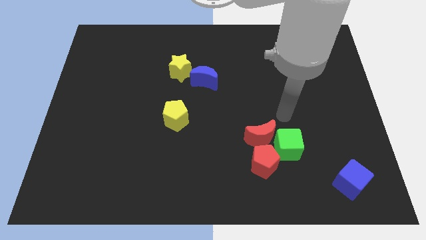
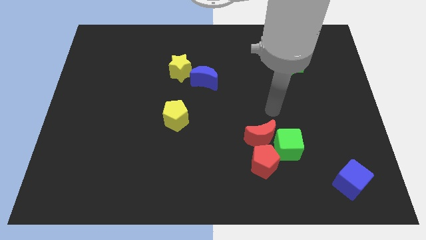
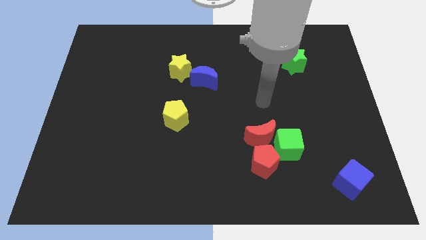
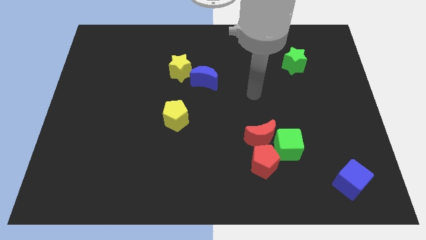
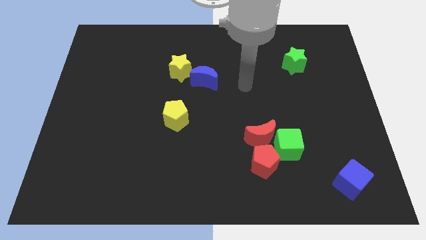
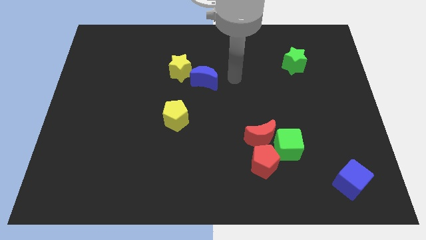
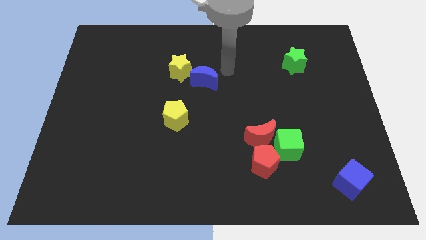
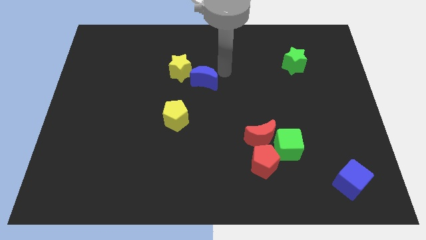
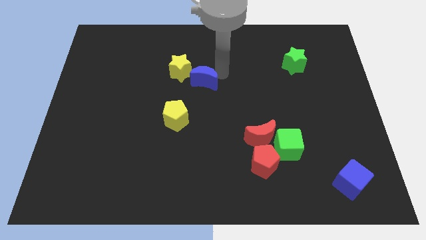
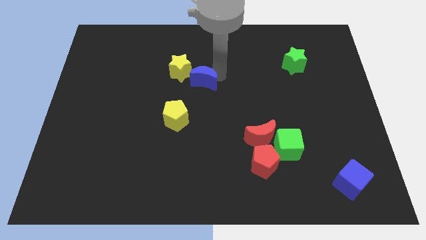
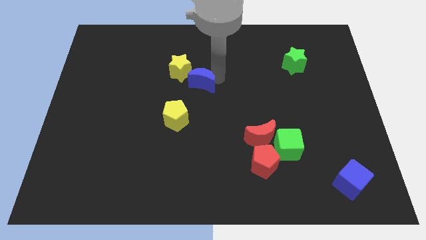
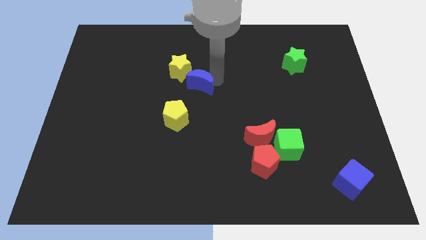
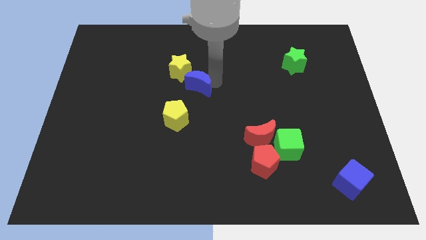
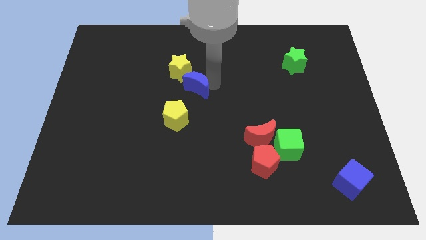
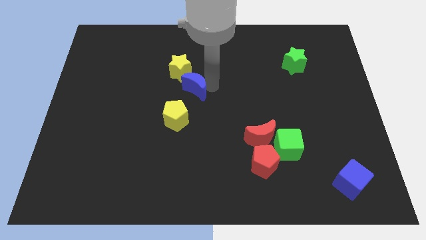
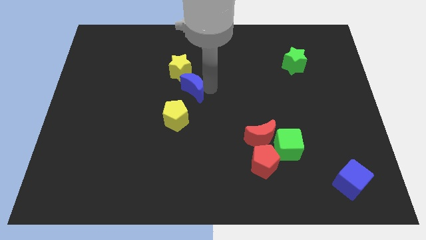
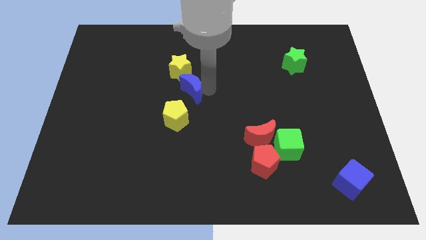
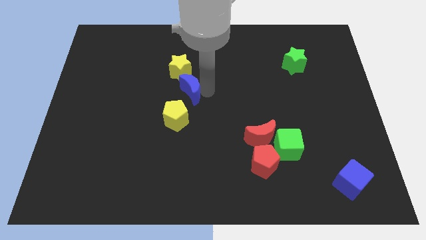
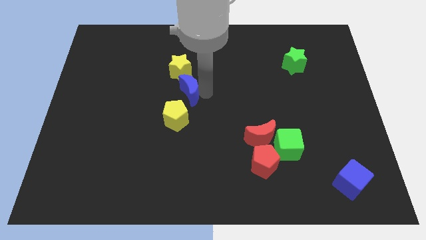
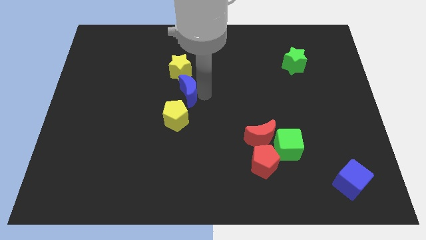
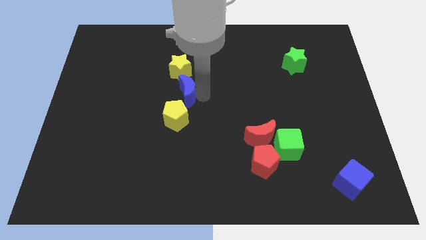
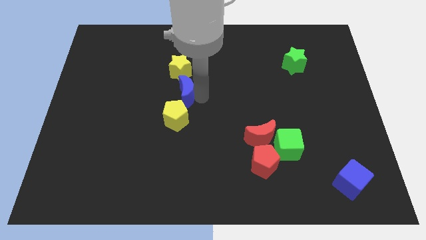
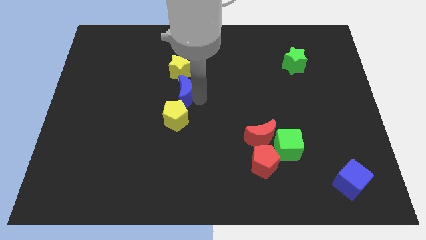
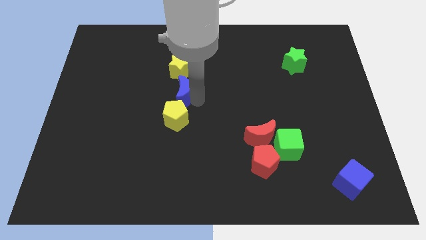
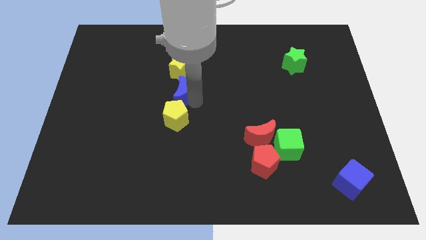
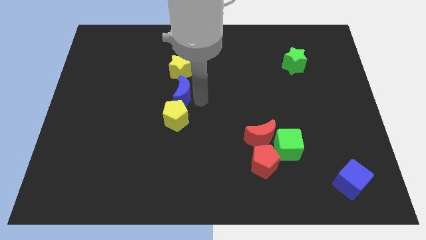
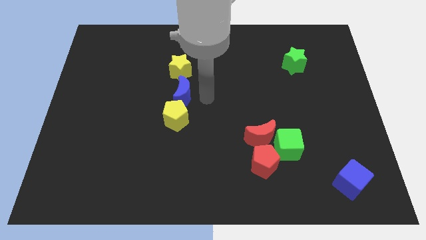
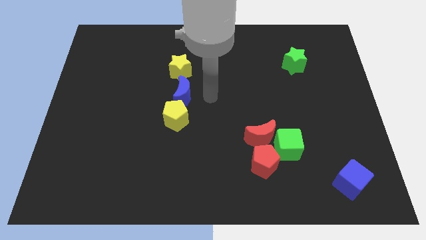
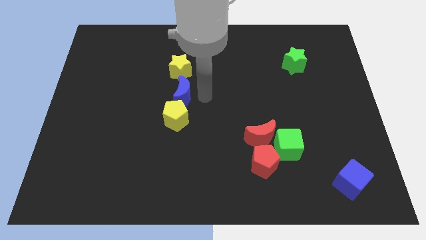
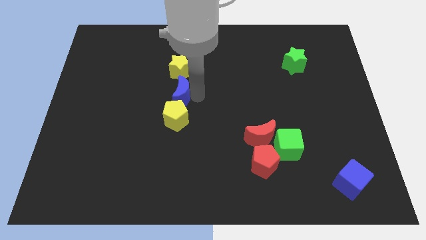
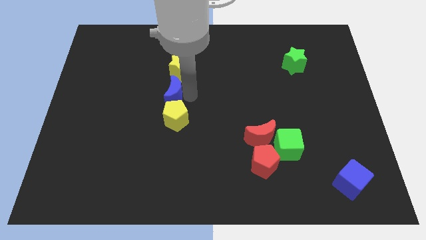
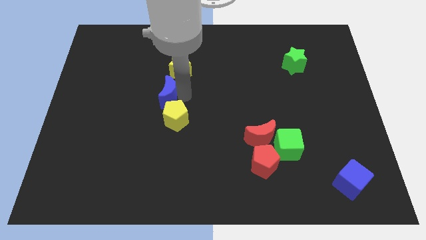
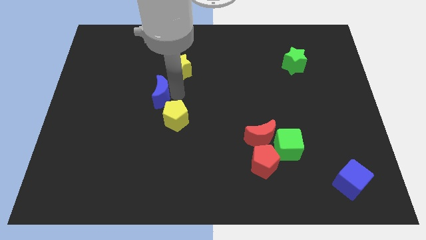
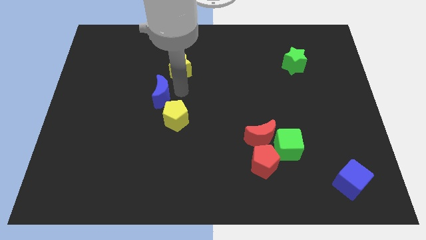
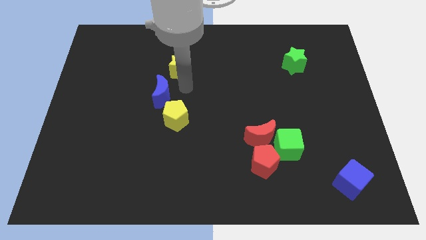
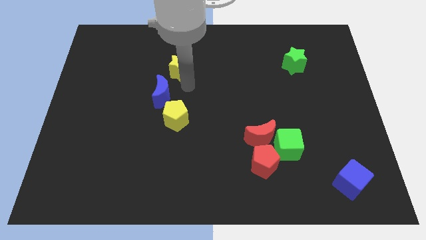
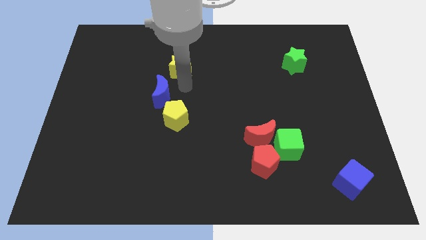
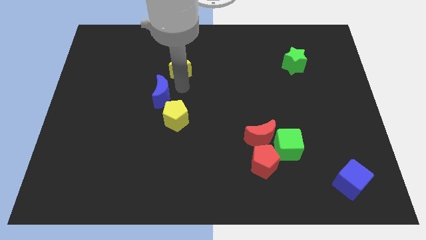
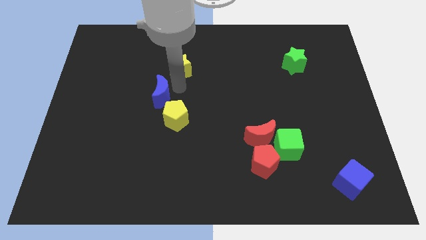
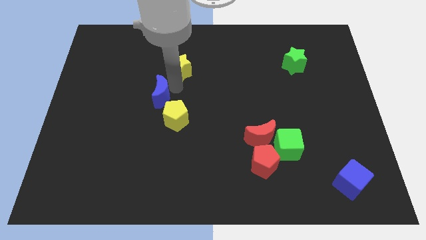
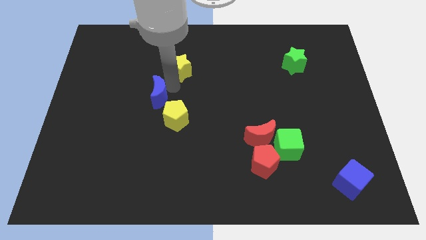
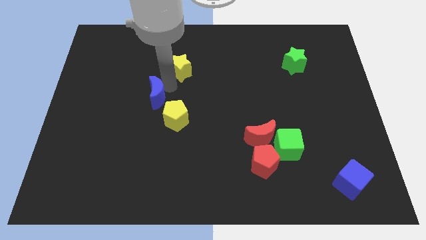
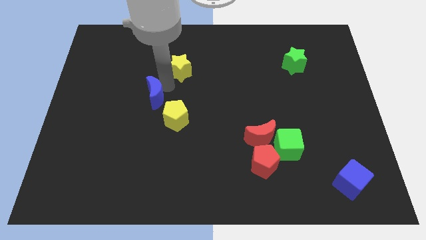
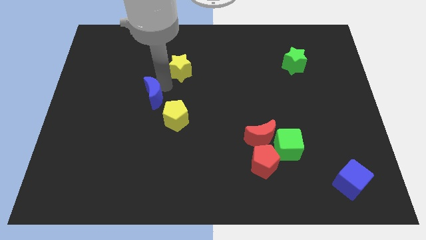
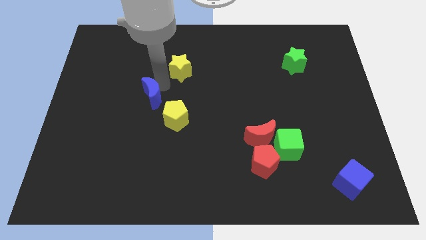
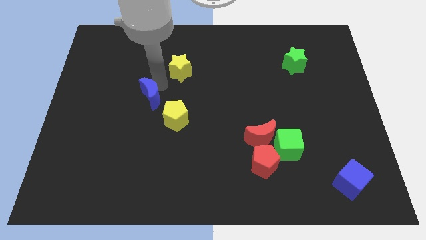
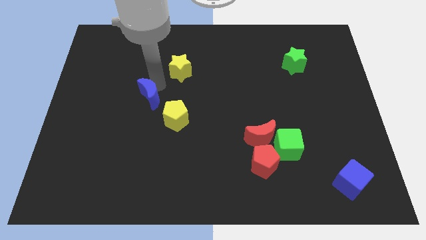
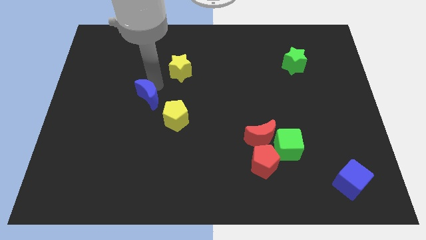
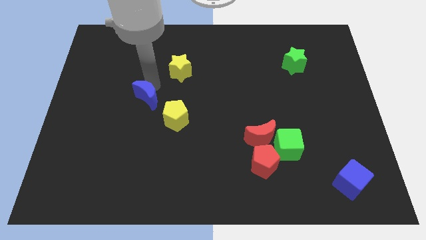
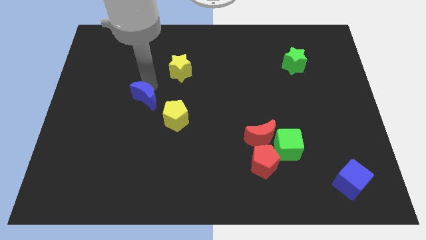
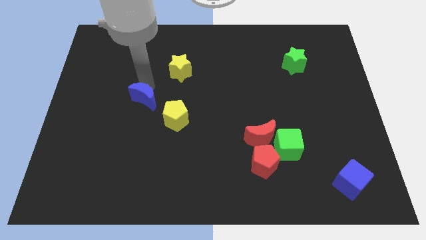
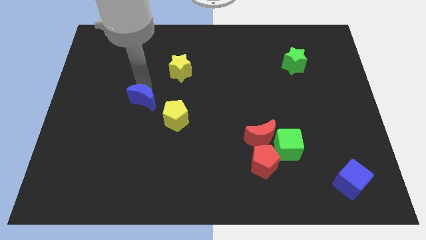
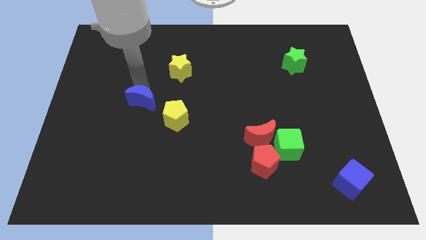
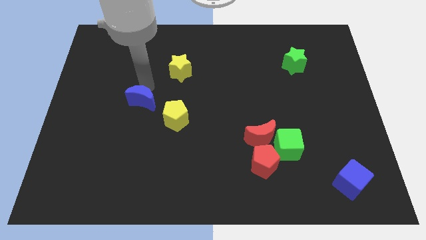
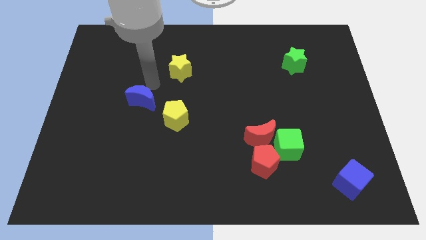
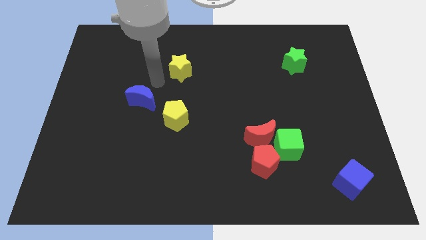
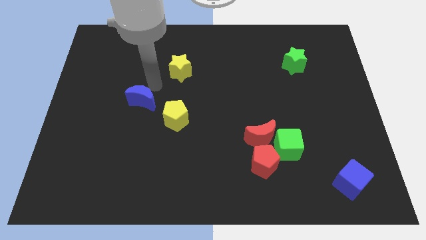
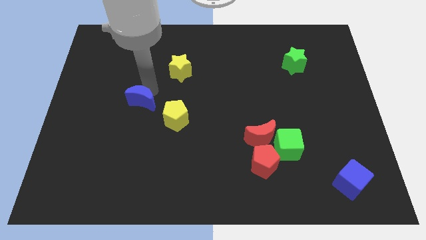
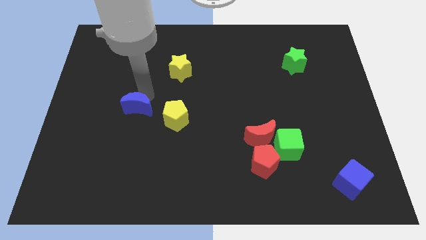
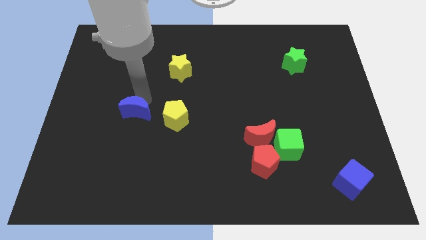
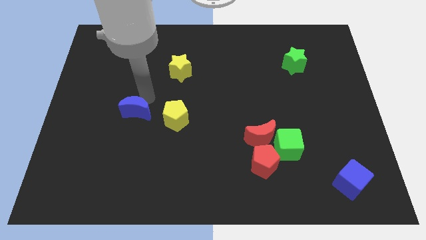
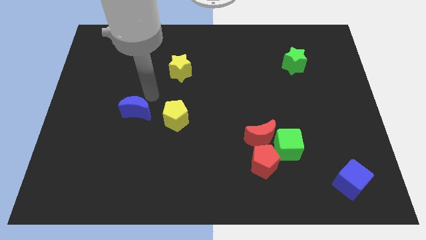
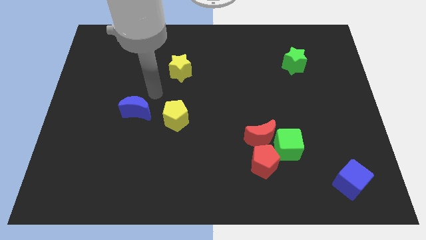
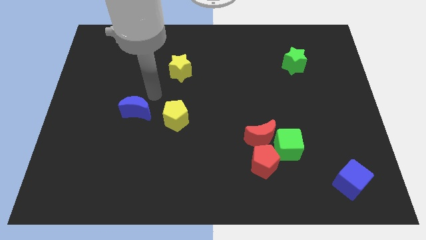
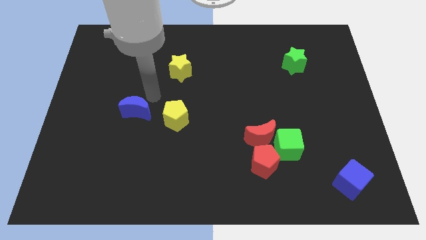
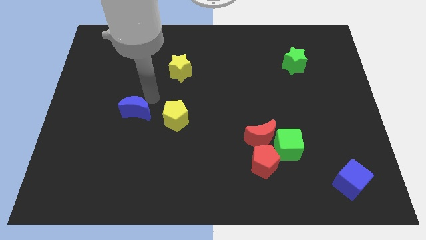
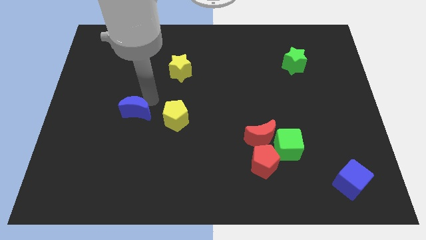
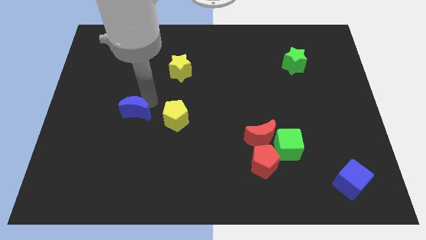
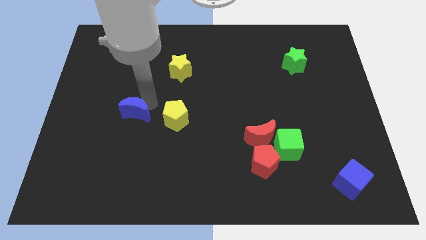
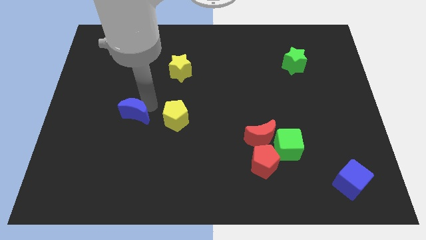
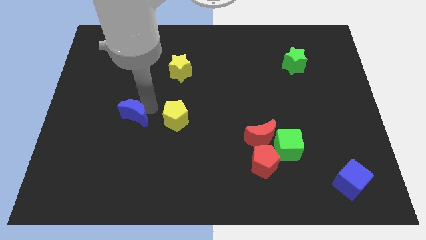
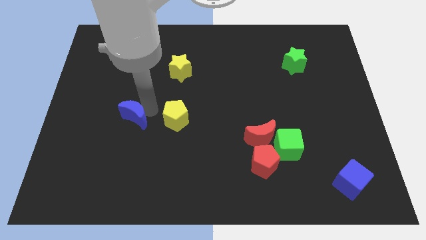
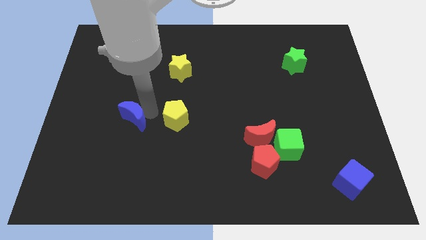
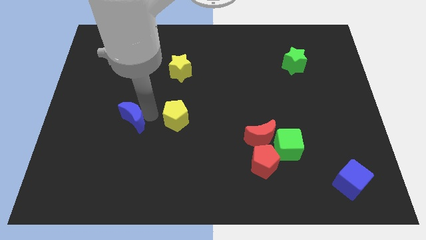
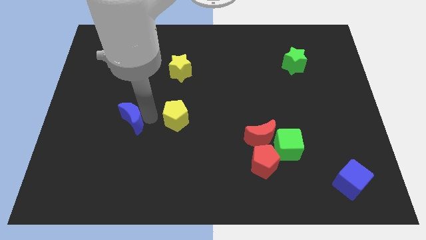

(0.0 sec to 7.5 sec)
move the blue moon down and to the left

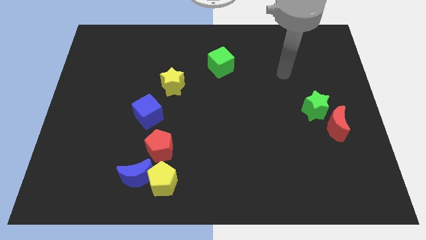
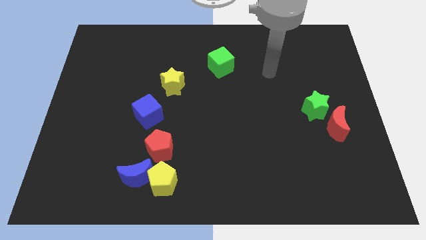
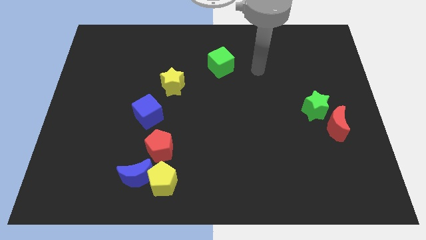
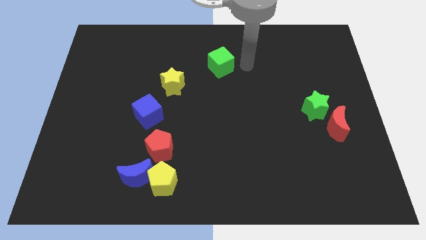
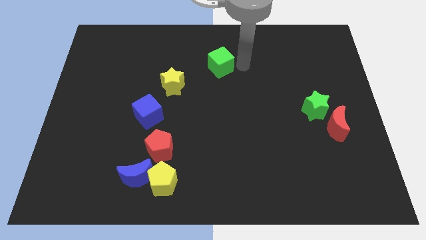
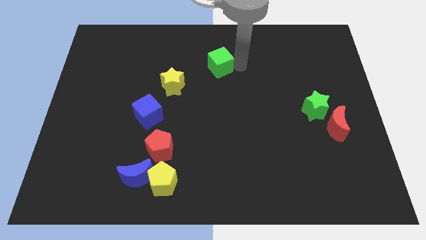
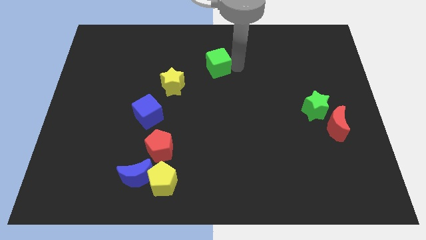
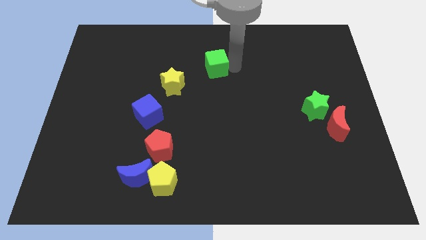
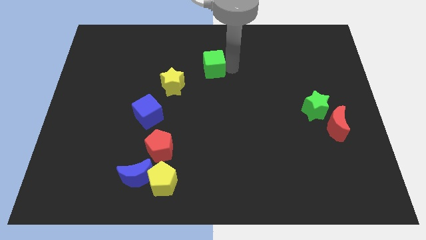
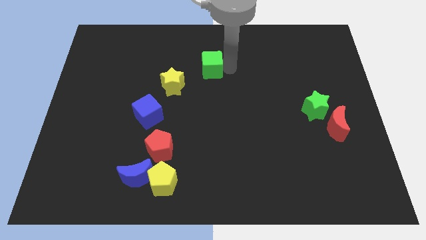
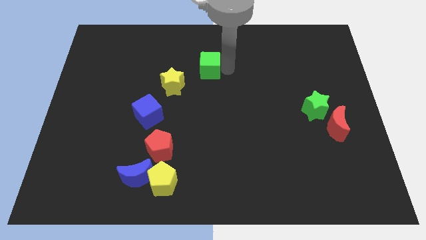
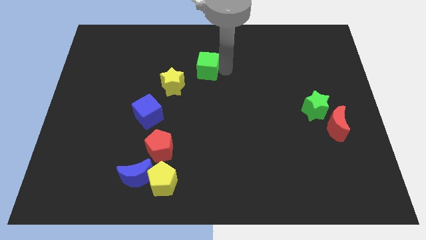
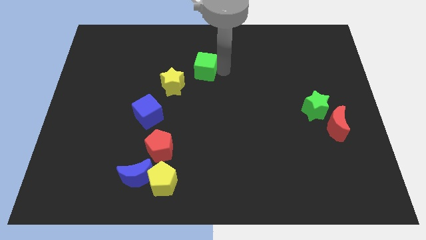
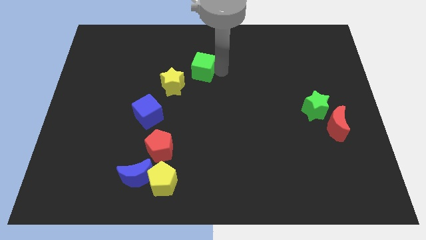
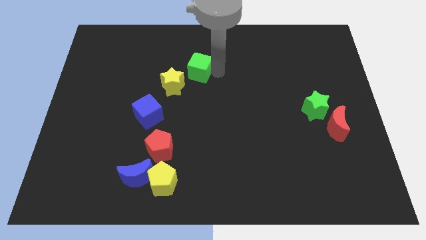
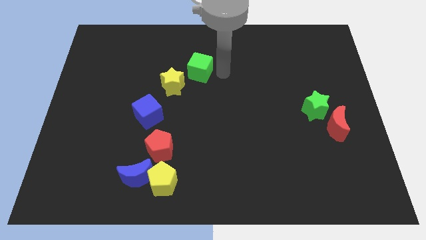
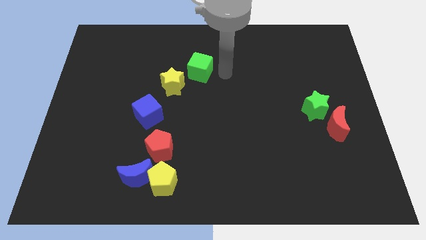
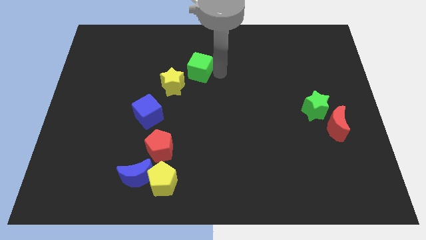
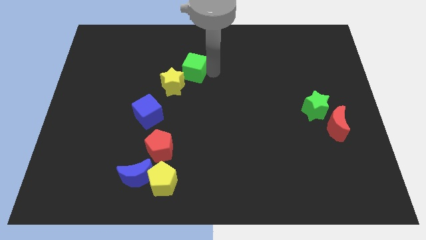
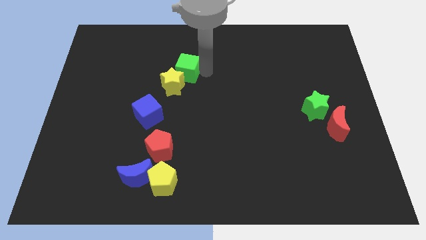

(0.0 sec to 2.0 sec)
push the green cube a little left
